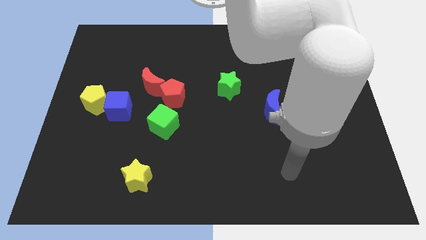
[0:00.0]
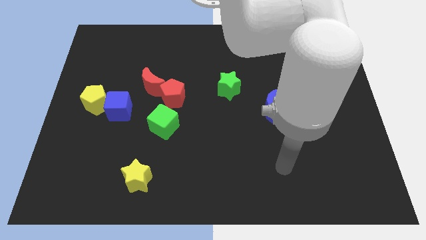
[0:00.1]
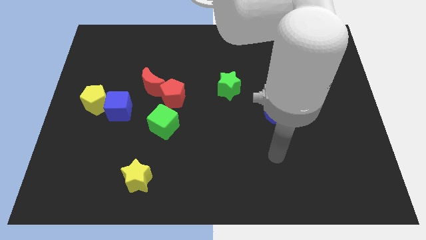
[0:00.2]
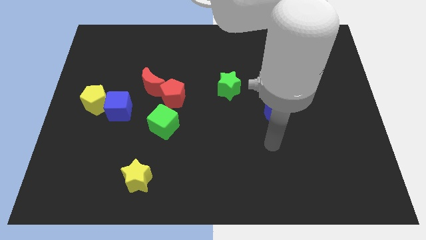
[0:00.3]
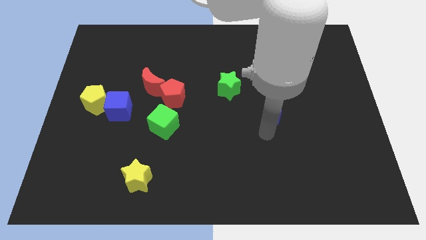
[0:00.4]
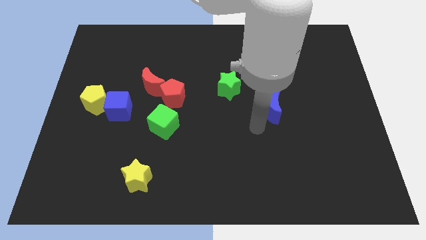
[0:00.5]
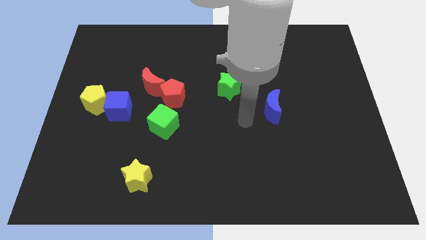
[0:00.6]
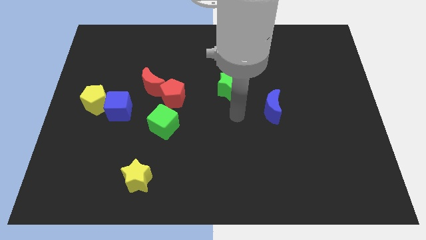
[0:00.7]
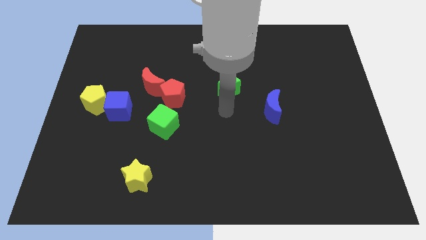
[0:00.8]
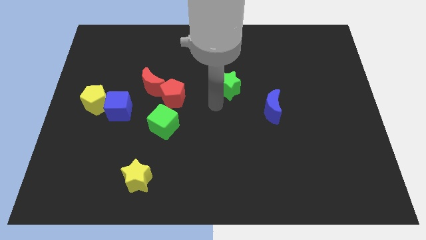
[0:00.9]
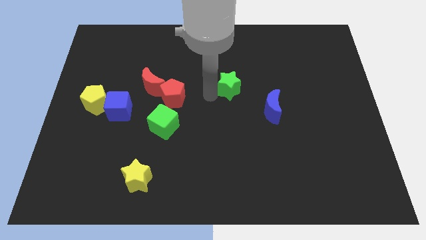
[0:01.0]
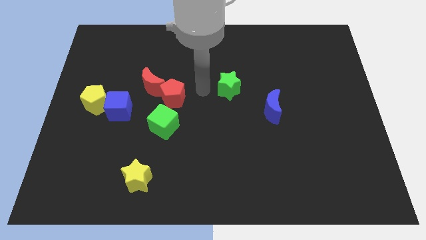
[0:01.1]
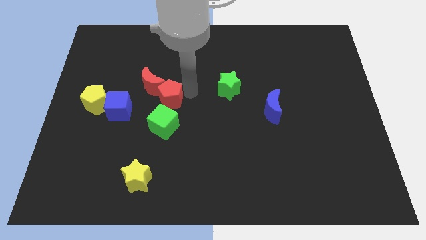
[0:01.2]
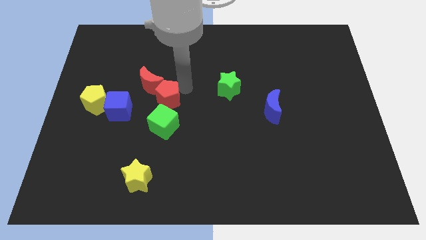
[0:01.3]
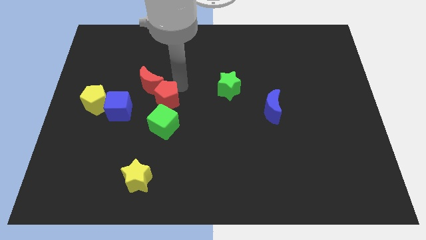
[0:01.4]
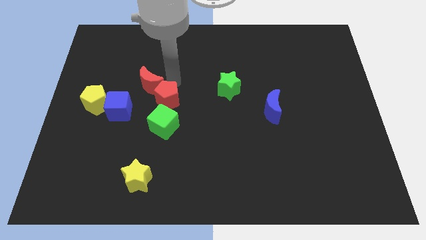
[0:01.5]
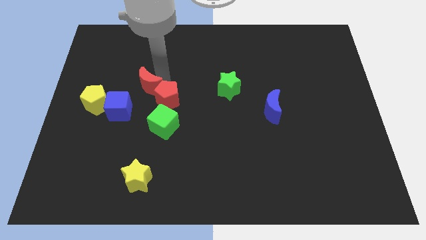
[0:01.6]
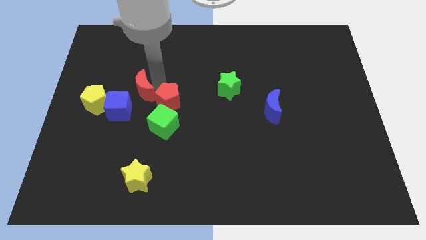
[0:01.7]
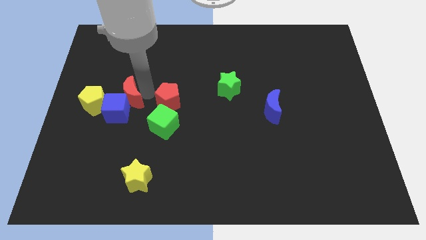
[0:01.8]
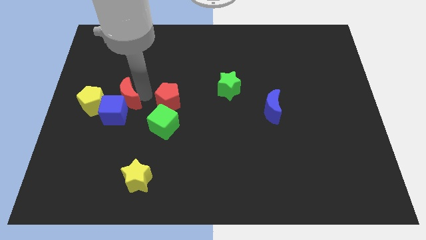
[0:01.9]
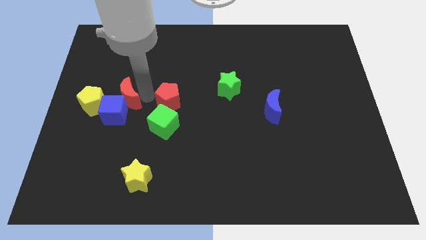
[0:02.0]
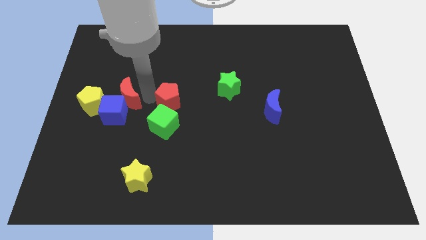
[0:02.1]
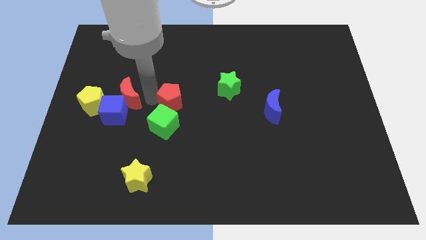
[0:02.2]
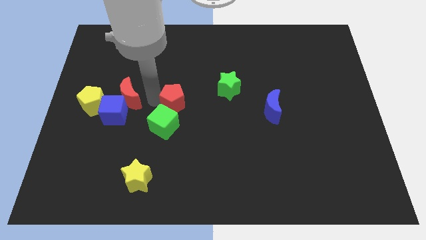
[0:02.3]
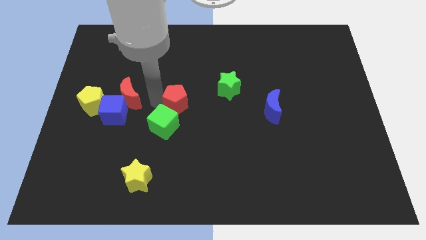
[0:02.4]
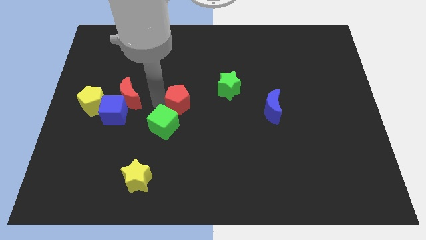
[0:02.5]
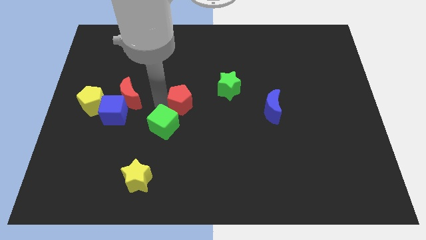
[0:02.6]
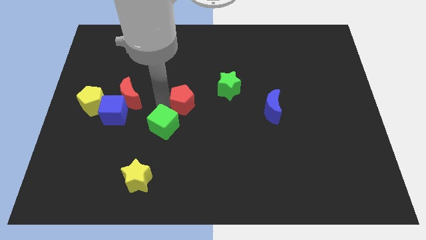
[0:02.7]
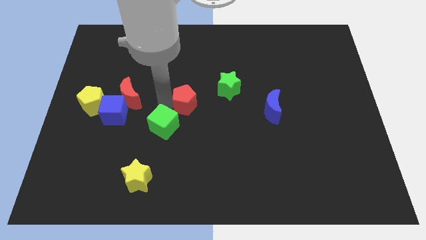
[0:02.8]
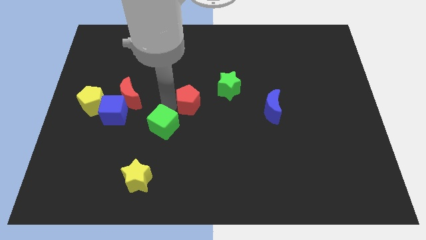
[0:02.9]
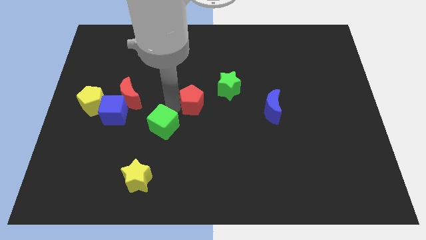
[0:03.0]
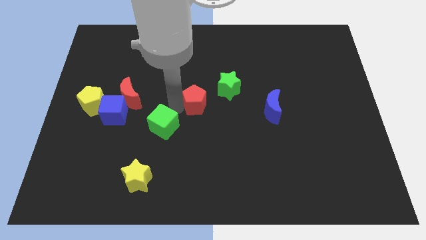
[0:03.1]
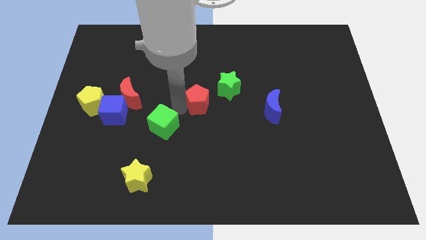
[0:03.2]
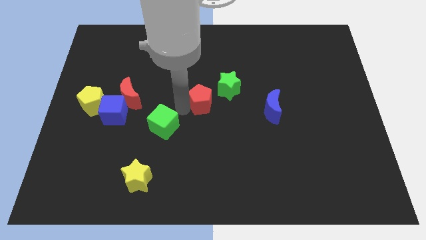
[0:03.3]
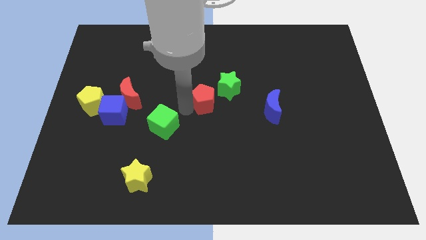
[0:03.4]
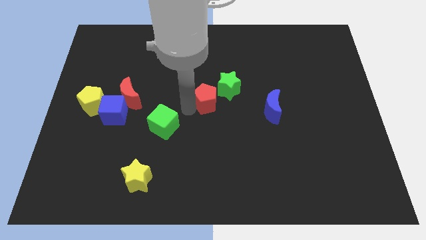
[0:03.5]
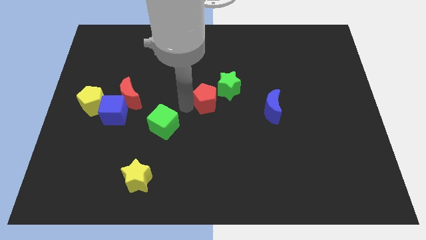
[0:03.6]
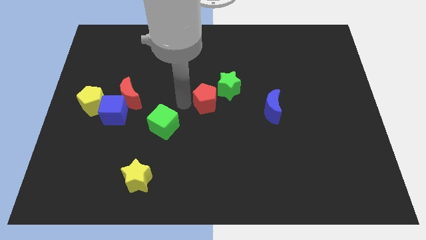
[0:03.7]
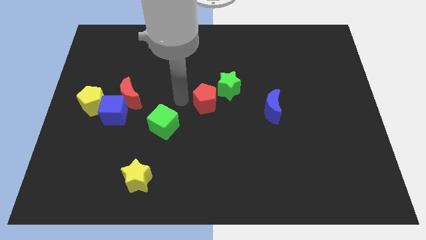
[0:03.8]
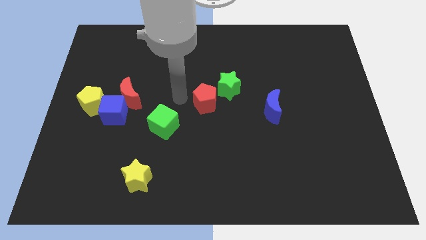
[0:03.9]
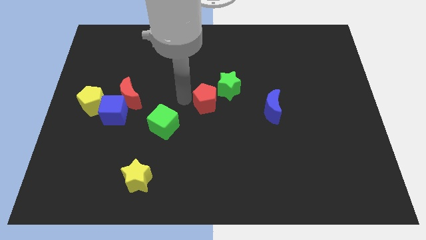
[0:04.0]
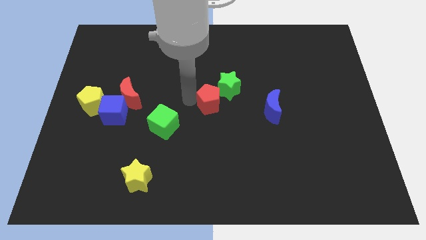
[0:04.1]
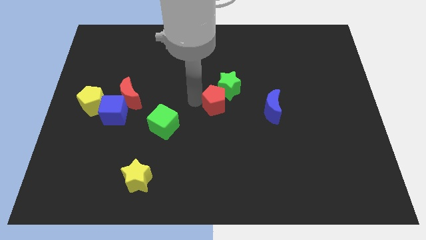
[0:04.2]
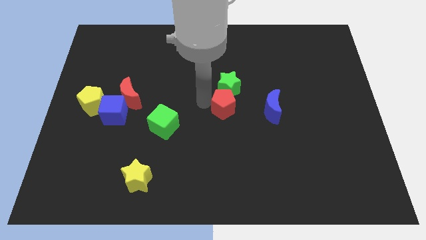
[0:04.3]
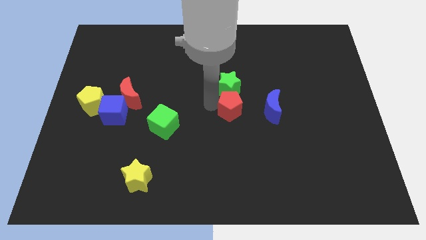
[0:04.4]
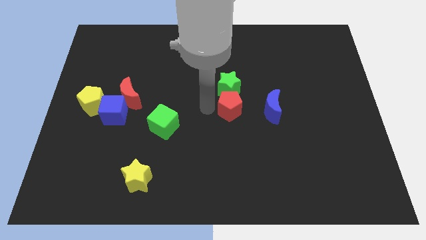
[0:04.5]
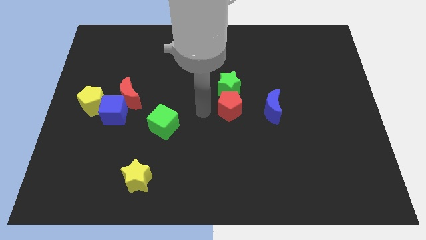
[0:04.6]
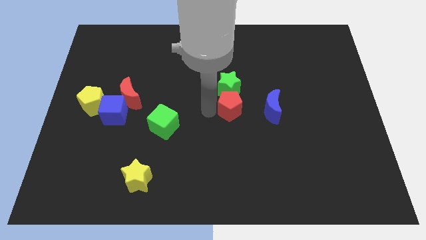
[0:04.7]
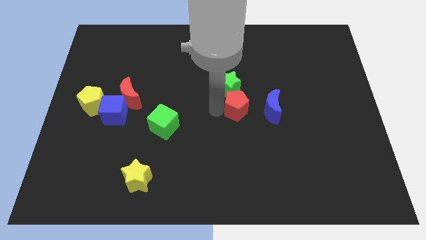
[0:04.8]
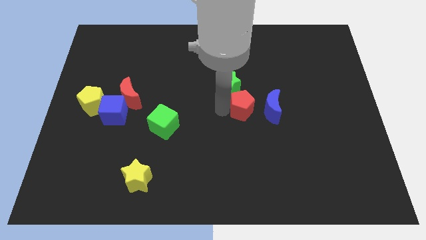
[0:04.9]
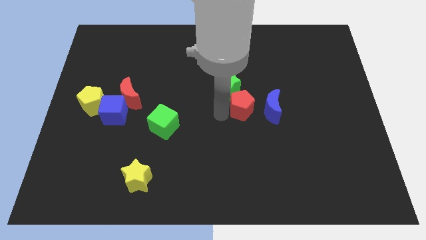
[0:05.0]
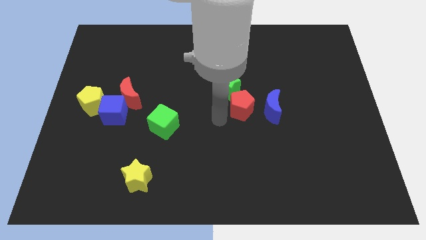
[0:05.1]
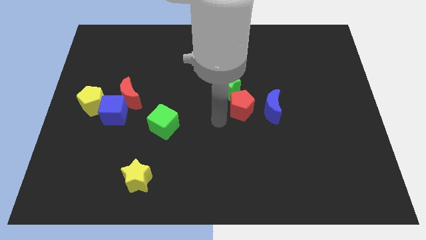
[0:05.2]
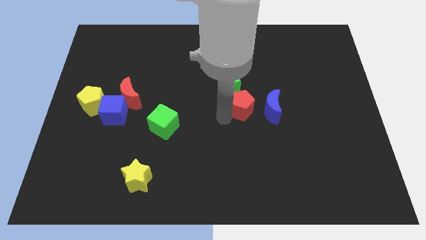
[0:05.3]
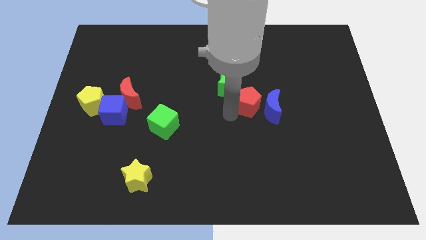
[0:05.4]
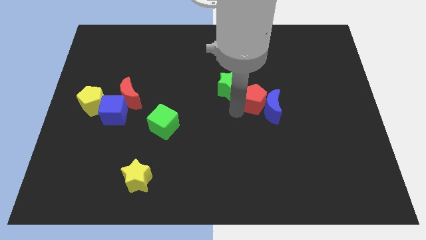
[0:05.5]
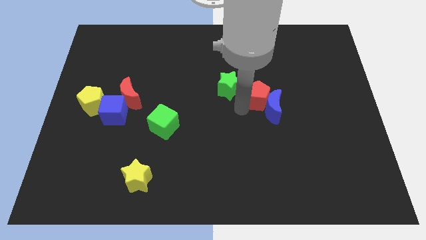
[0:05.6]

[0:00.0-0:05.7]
move the red pentagon right

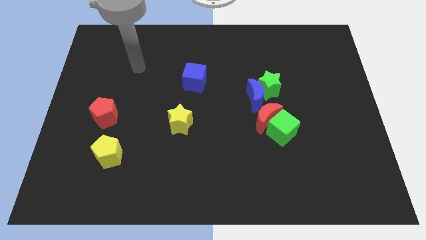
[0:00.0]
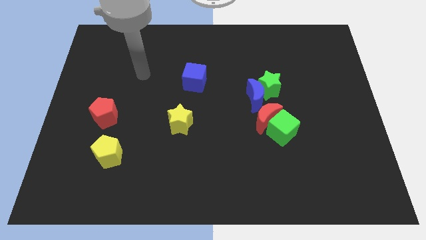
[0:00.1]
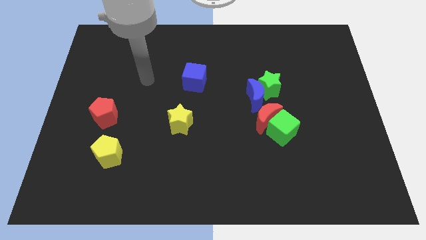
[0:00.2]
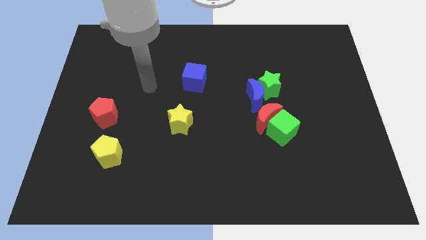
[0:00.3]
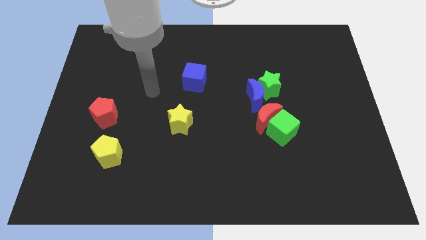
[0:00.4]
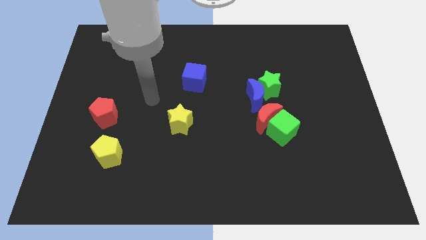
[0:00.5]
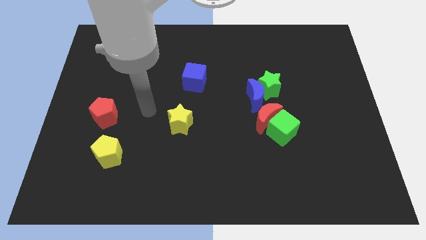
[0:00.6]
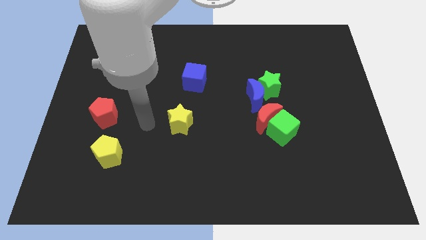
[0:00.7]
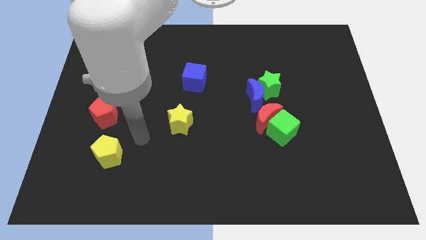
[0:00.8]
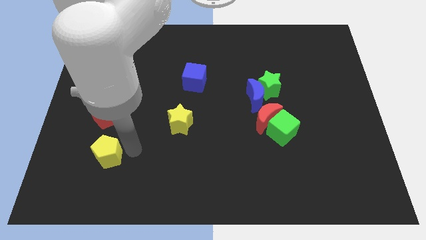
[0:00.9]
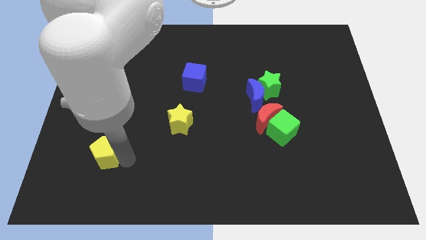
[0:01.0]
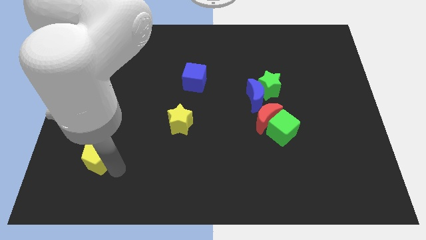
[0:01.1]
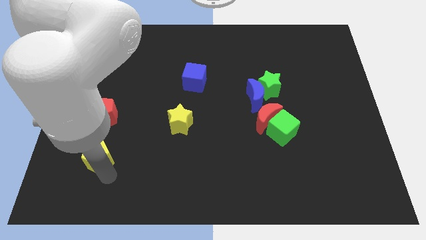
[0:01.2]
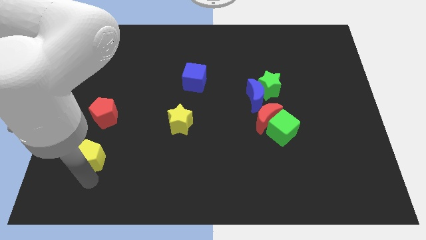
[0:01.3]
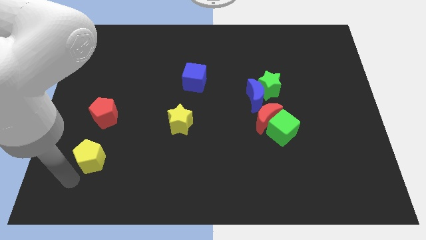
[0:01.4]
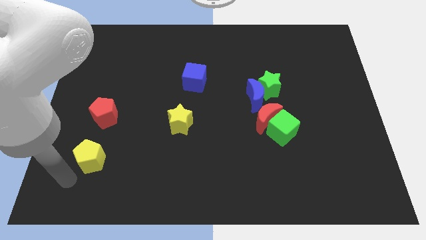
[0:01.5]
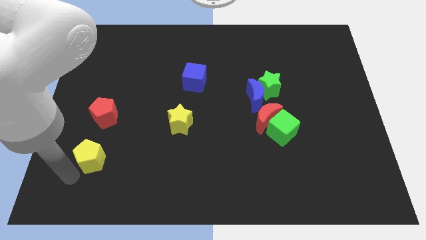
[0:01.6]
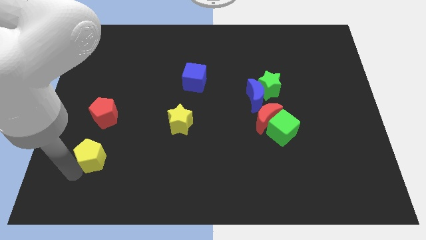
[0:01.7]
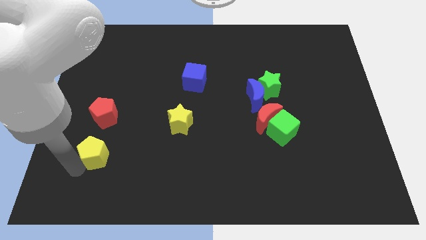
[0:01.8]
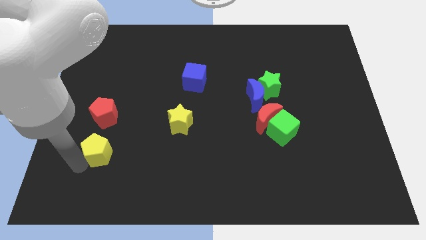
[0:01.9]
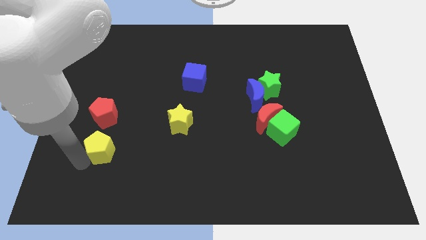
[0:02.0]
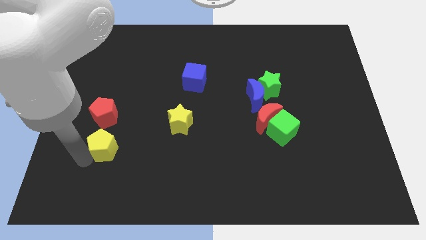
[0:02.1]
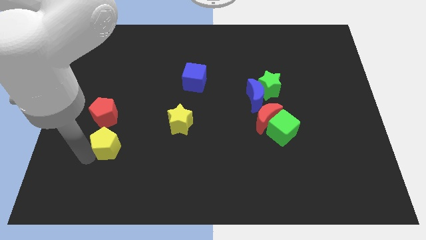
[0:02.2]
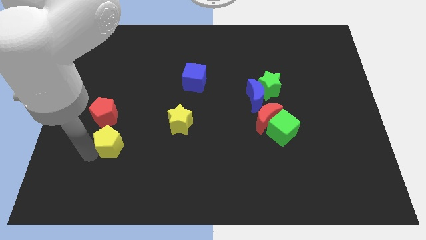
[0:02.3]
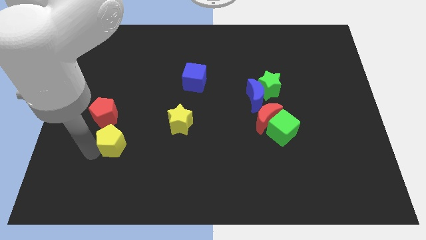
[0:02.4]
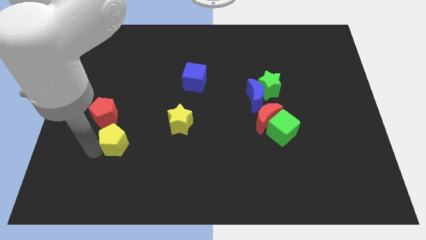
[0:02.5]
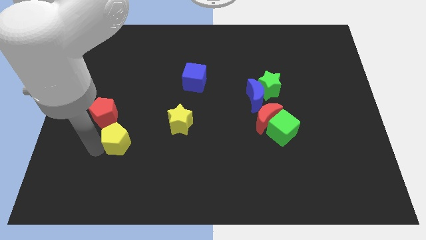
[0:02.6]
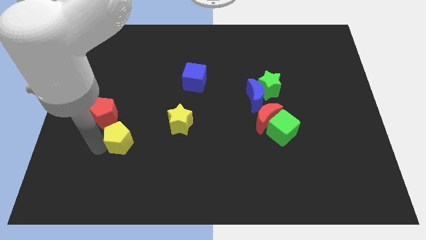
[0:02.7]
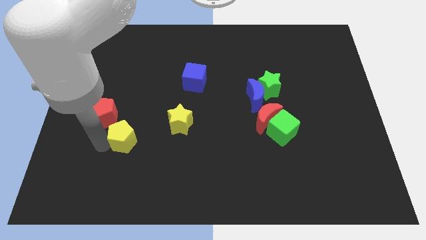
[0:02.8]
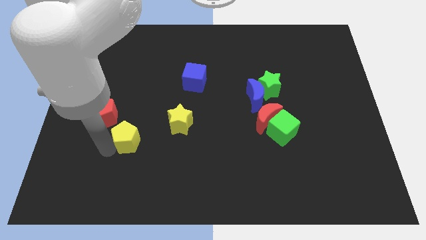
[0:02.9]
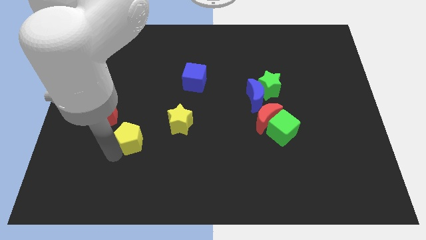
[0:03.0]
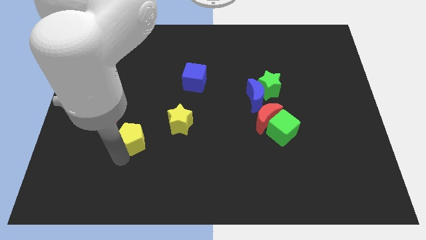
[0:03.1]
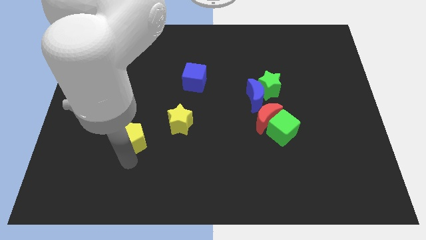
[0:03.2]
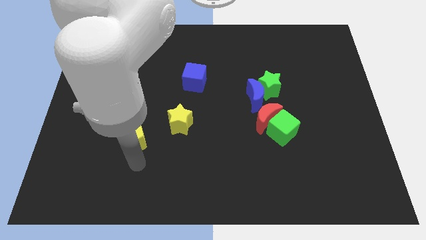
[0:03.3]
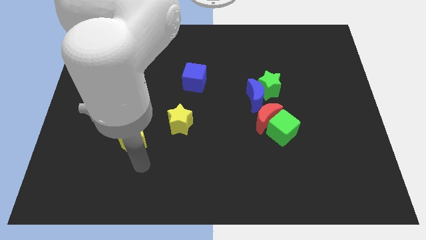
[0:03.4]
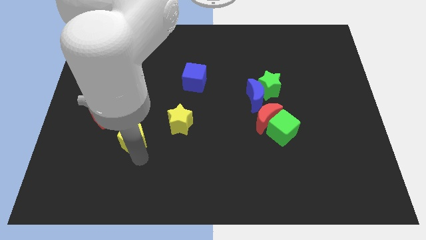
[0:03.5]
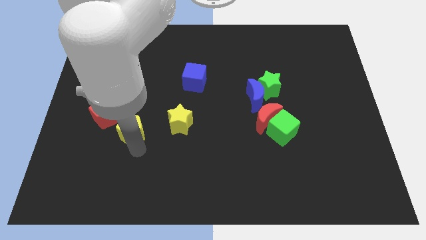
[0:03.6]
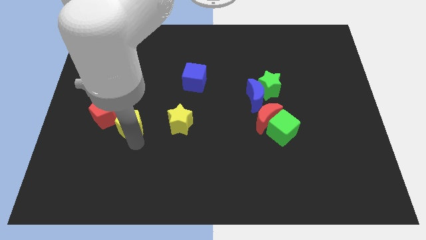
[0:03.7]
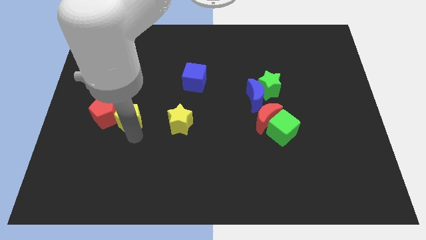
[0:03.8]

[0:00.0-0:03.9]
move the yellow pentagon up somewhat
